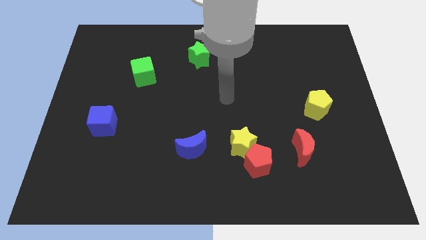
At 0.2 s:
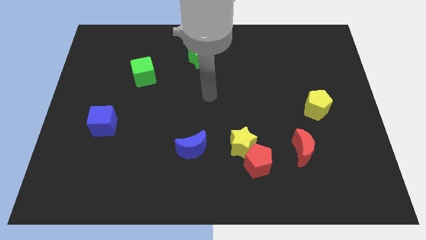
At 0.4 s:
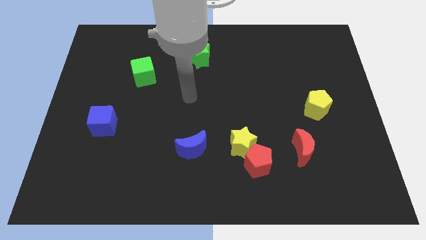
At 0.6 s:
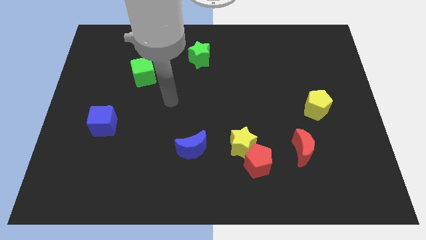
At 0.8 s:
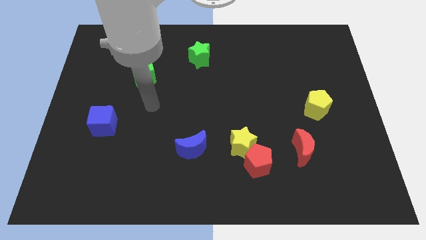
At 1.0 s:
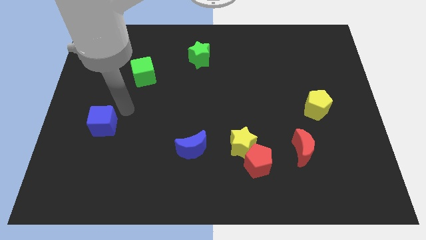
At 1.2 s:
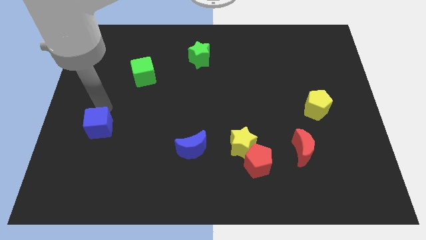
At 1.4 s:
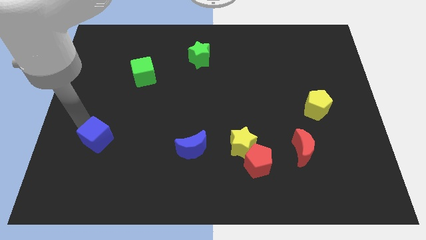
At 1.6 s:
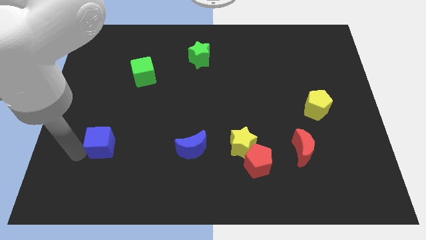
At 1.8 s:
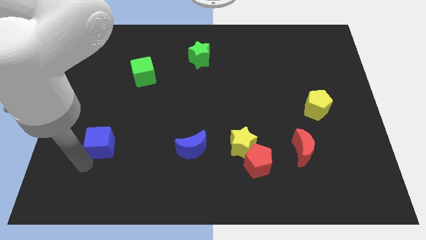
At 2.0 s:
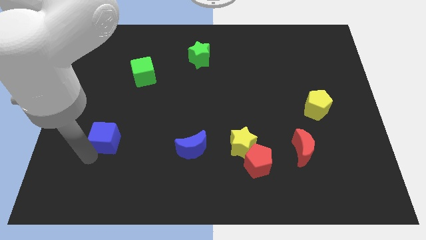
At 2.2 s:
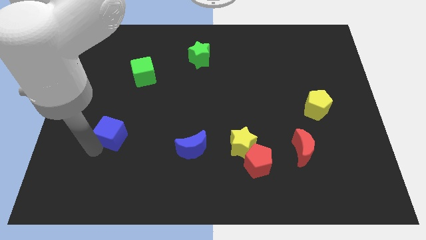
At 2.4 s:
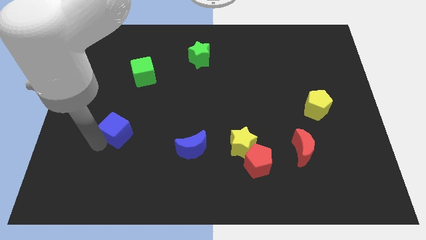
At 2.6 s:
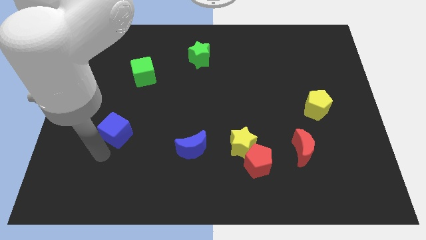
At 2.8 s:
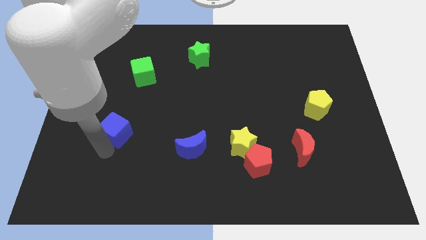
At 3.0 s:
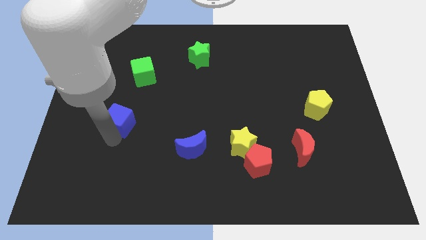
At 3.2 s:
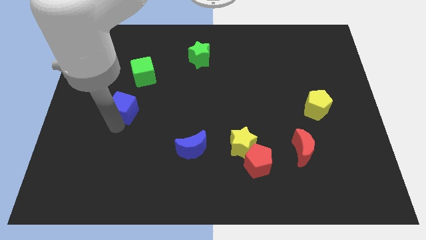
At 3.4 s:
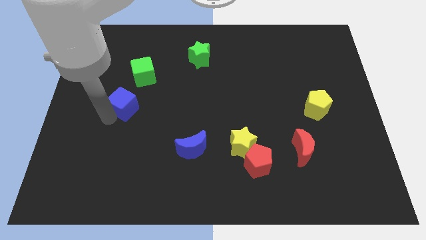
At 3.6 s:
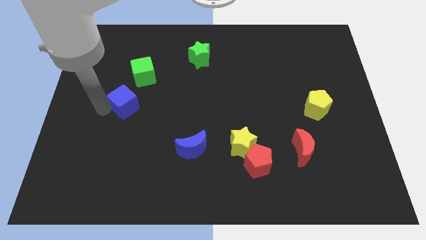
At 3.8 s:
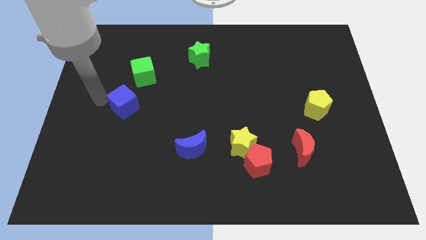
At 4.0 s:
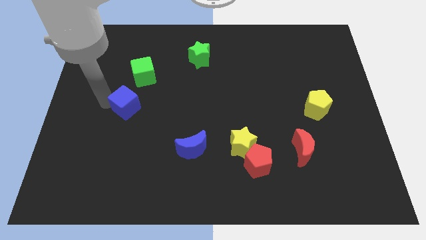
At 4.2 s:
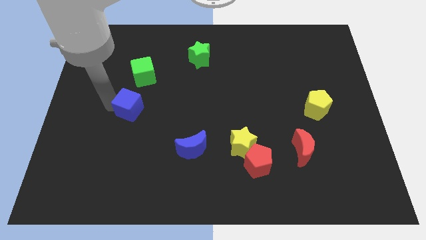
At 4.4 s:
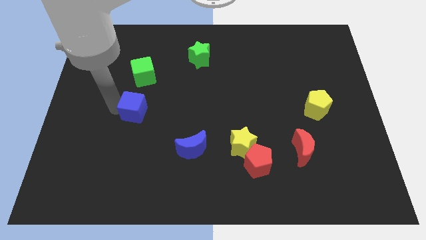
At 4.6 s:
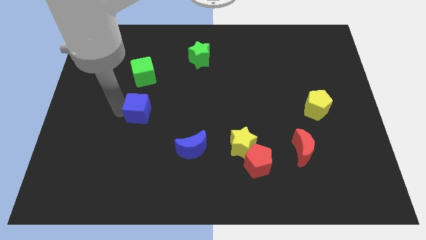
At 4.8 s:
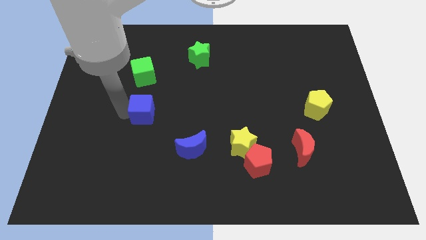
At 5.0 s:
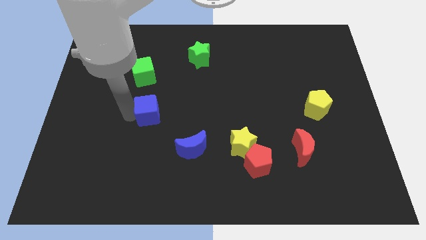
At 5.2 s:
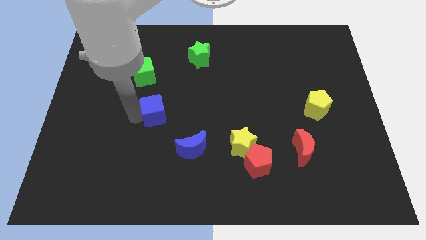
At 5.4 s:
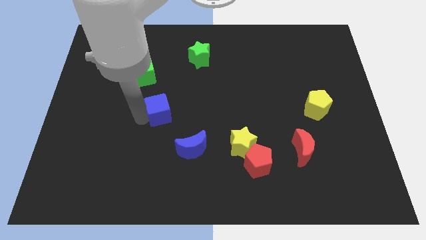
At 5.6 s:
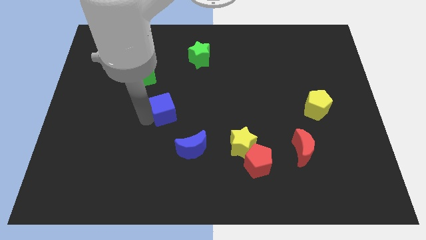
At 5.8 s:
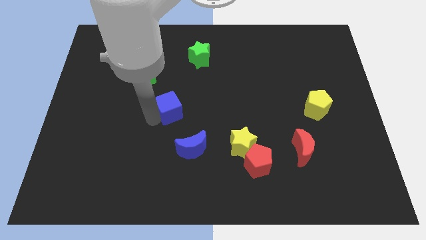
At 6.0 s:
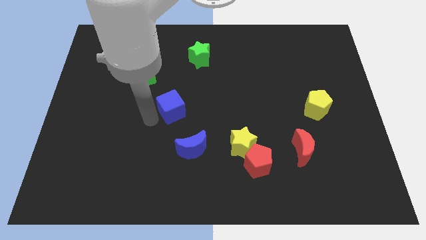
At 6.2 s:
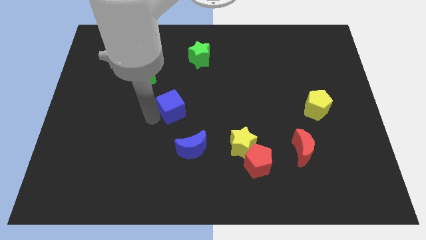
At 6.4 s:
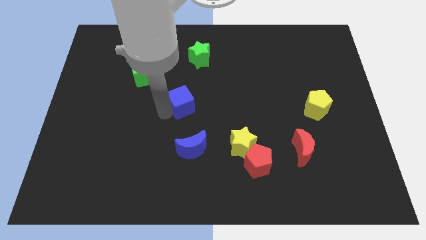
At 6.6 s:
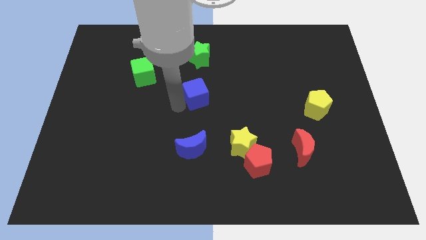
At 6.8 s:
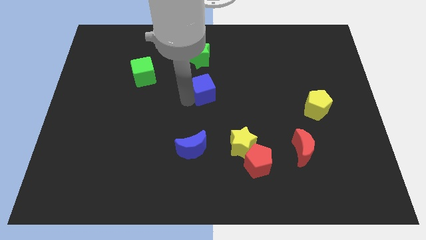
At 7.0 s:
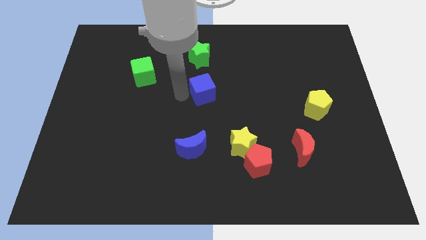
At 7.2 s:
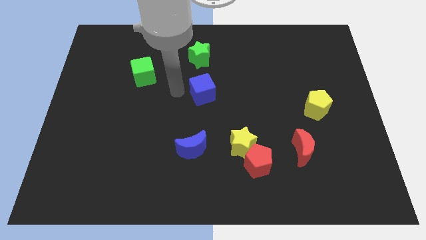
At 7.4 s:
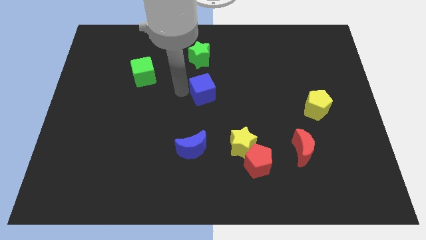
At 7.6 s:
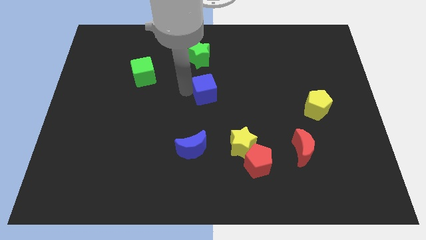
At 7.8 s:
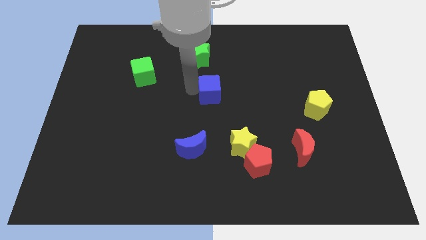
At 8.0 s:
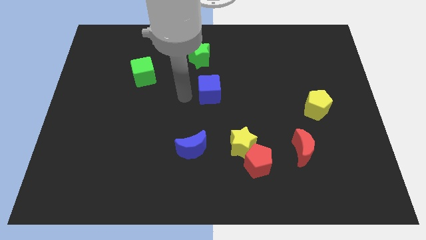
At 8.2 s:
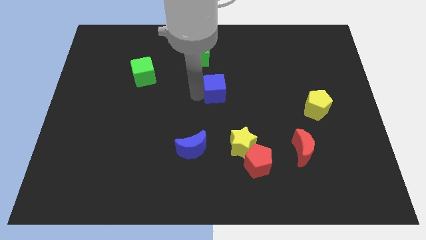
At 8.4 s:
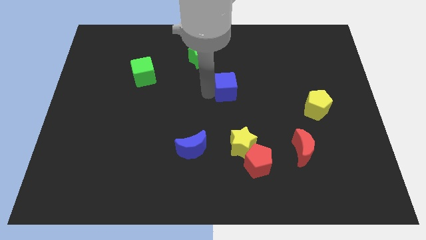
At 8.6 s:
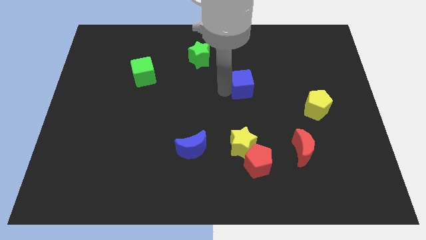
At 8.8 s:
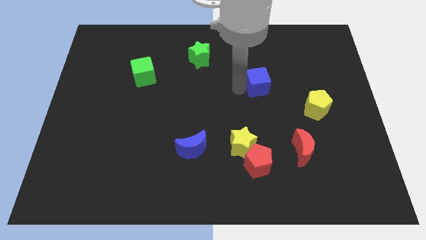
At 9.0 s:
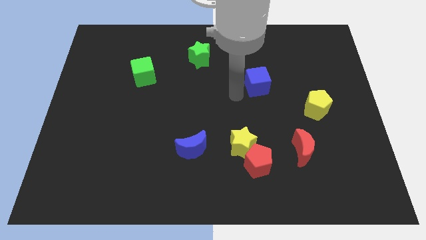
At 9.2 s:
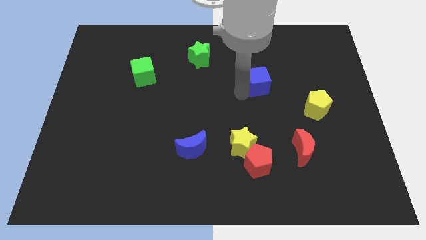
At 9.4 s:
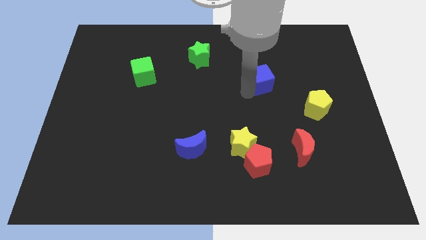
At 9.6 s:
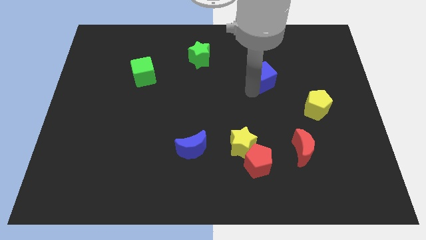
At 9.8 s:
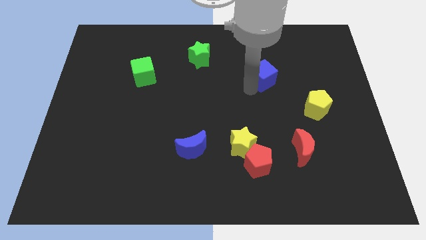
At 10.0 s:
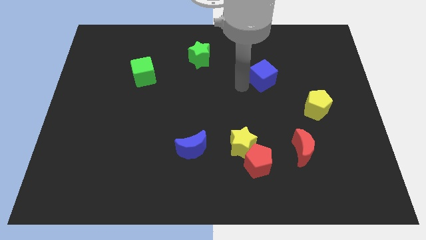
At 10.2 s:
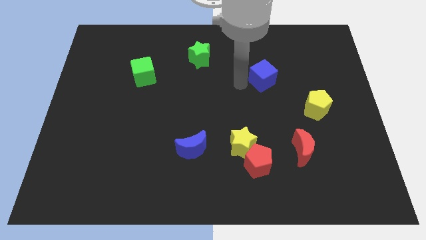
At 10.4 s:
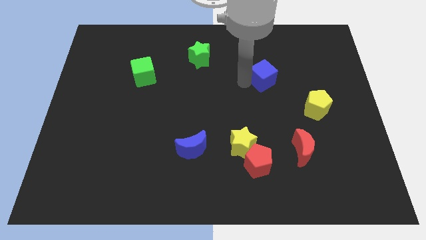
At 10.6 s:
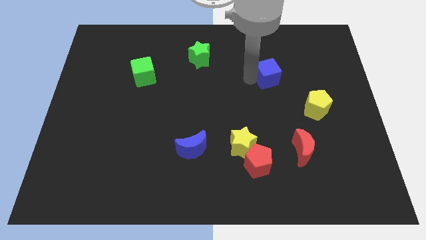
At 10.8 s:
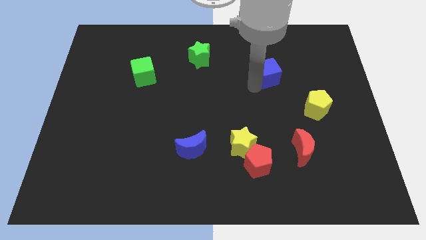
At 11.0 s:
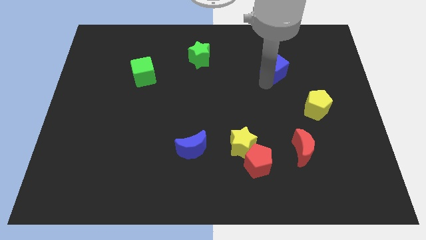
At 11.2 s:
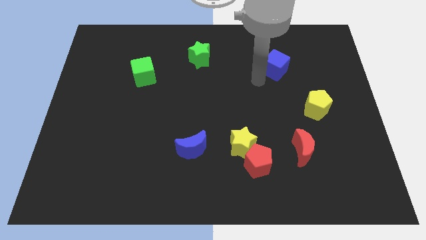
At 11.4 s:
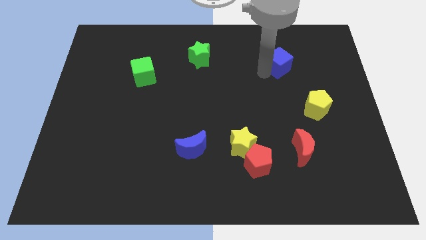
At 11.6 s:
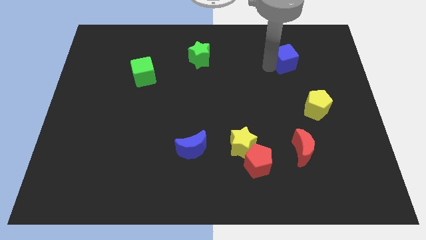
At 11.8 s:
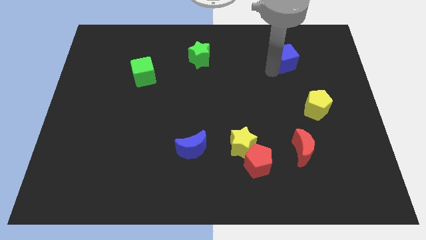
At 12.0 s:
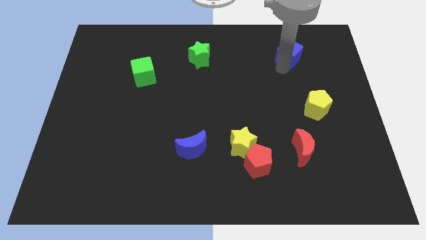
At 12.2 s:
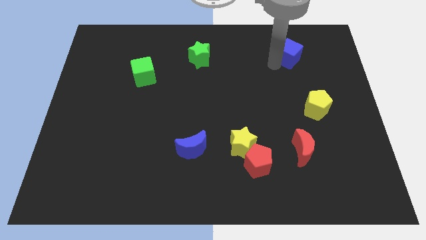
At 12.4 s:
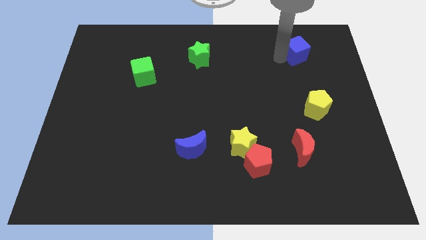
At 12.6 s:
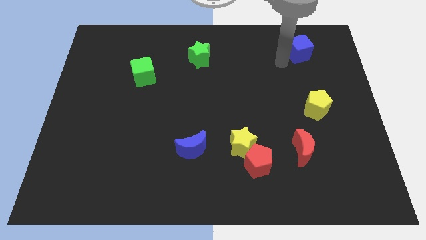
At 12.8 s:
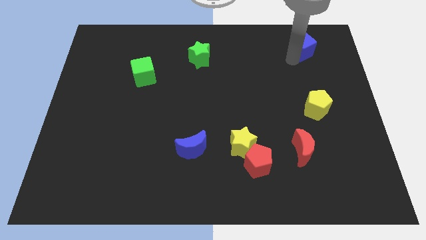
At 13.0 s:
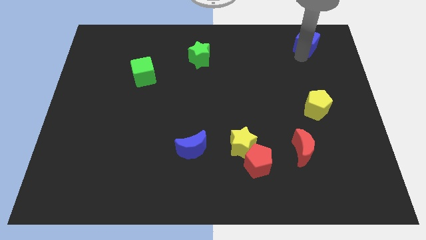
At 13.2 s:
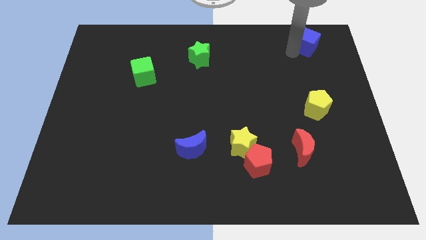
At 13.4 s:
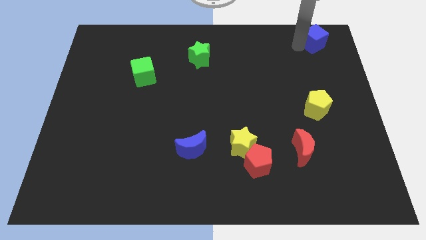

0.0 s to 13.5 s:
push the blue cube to the upper right corner
